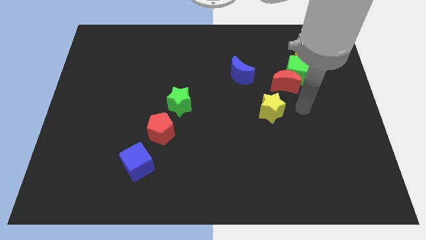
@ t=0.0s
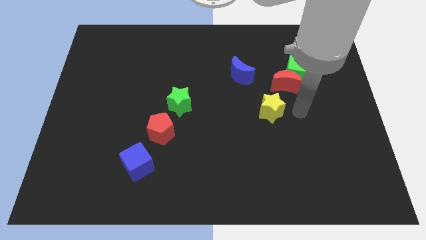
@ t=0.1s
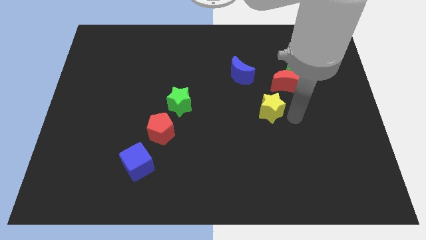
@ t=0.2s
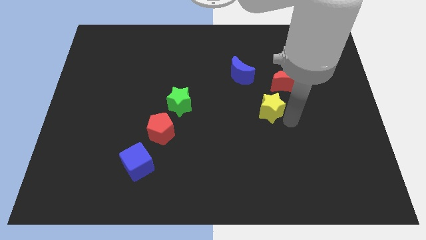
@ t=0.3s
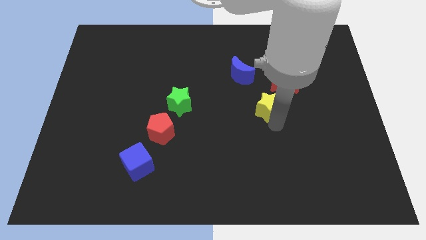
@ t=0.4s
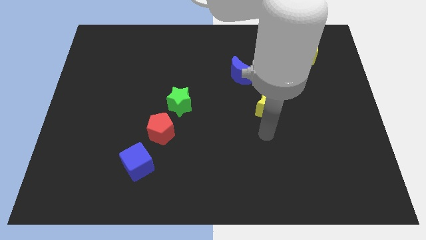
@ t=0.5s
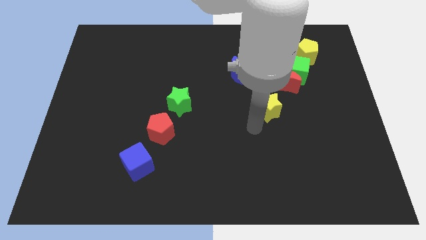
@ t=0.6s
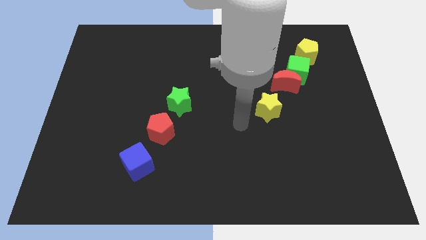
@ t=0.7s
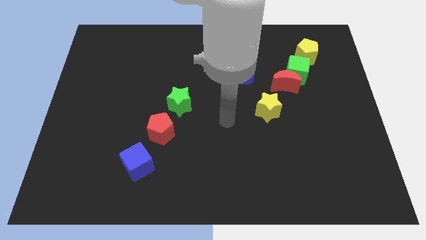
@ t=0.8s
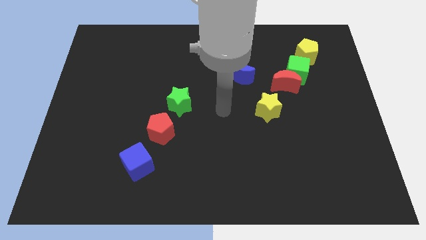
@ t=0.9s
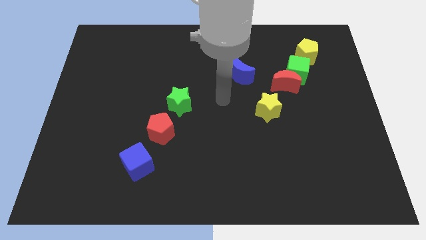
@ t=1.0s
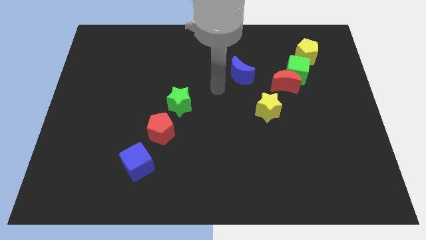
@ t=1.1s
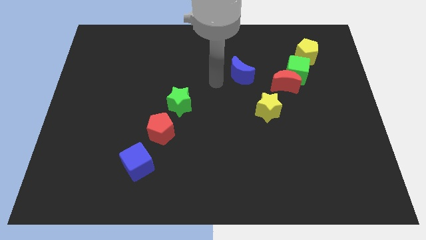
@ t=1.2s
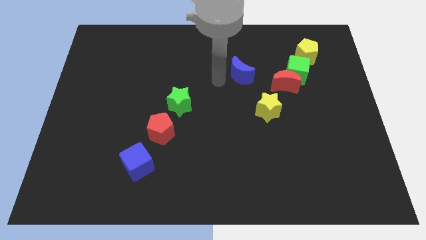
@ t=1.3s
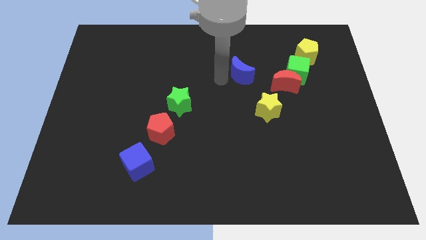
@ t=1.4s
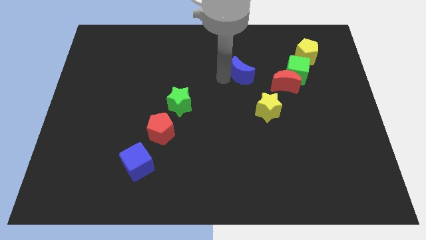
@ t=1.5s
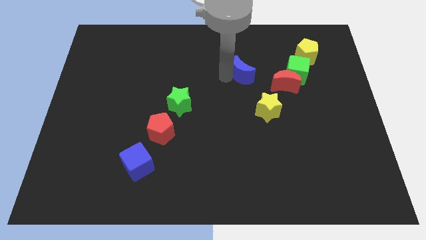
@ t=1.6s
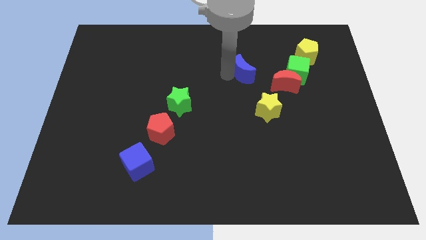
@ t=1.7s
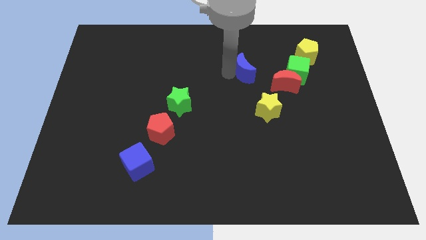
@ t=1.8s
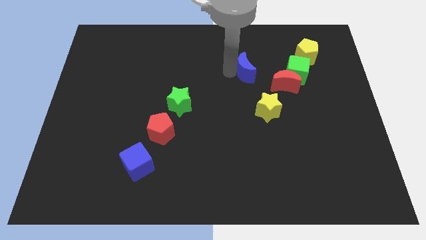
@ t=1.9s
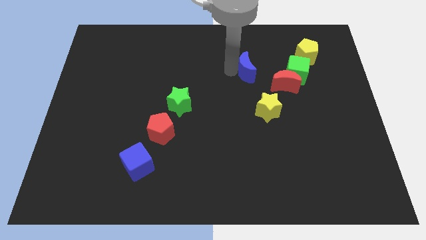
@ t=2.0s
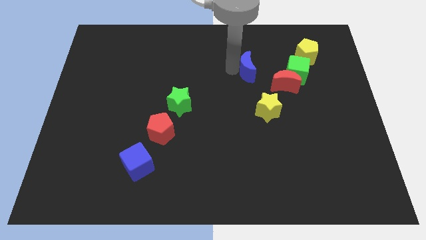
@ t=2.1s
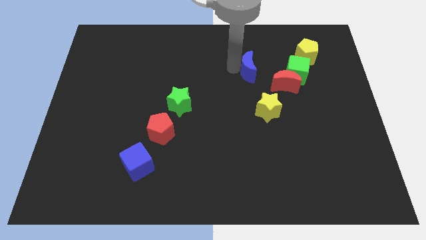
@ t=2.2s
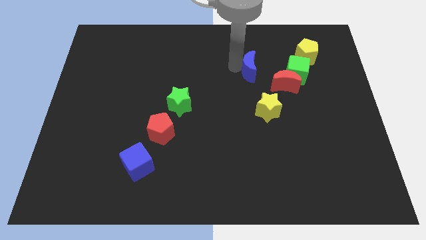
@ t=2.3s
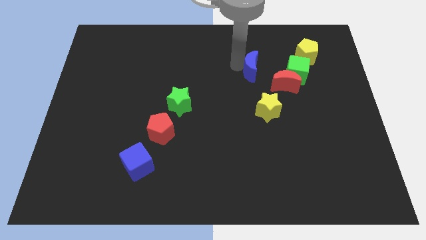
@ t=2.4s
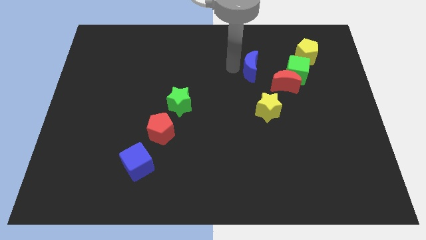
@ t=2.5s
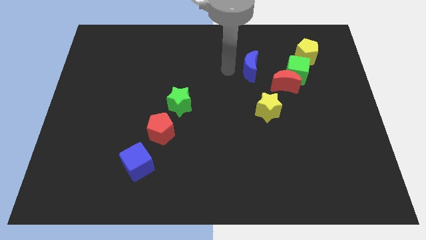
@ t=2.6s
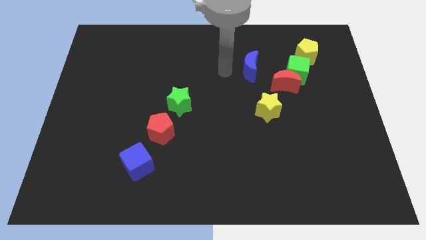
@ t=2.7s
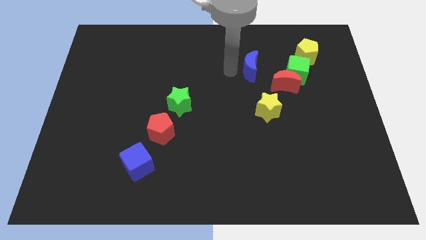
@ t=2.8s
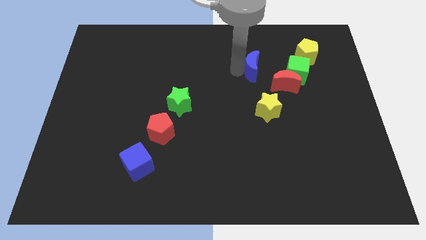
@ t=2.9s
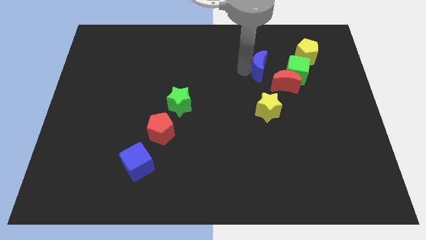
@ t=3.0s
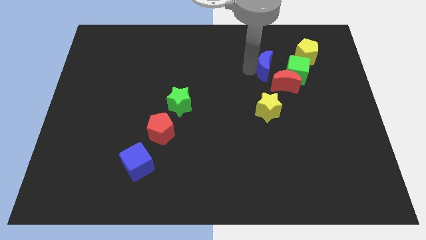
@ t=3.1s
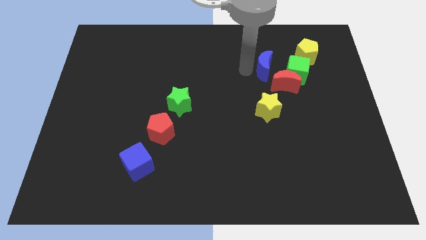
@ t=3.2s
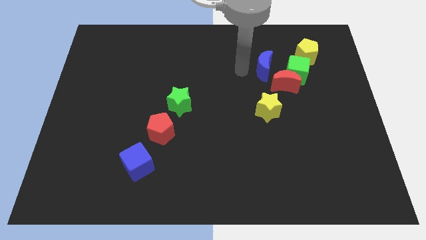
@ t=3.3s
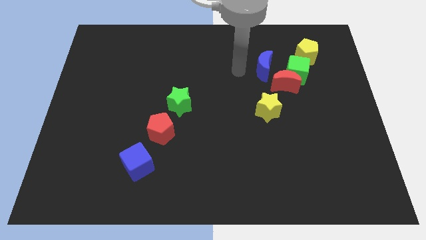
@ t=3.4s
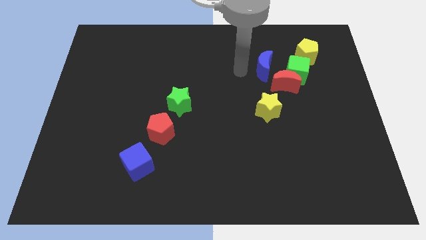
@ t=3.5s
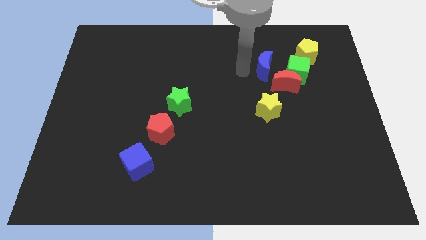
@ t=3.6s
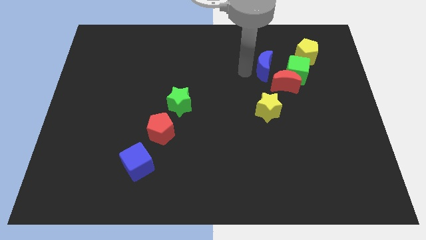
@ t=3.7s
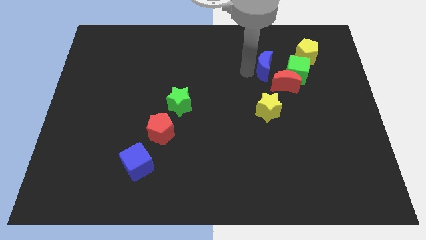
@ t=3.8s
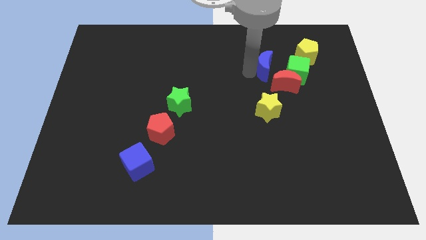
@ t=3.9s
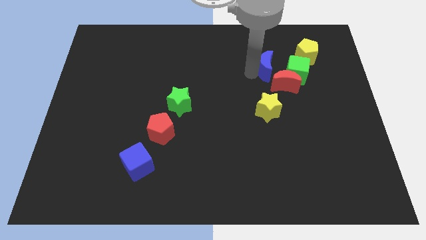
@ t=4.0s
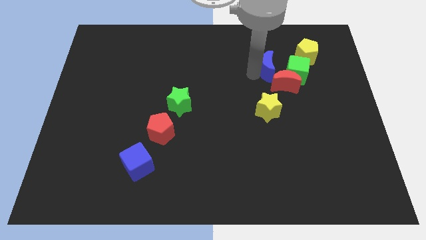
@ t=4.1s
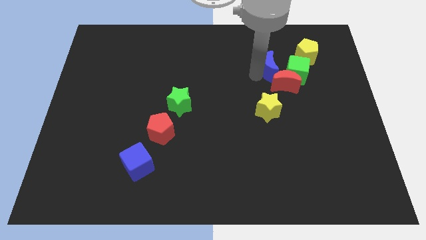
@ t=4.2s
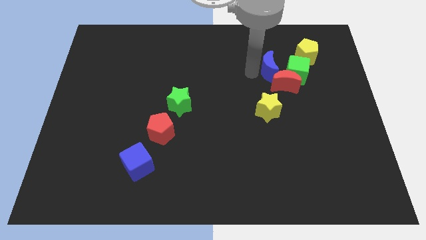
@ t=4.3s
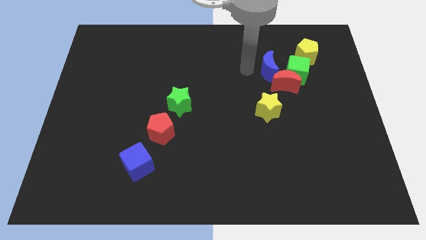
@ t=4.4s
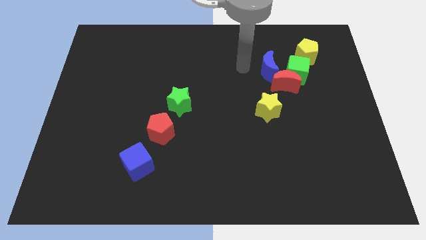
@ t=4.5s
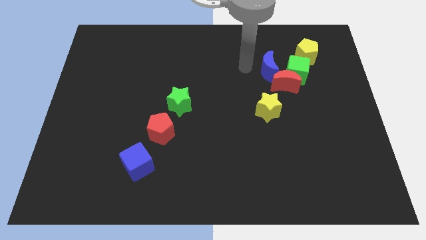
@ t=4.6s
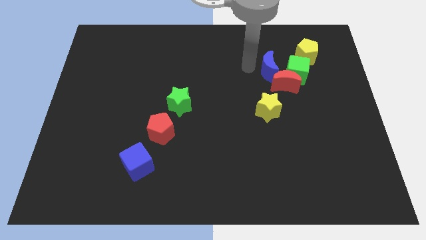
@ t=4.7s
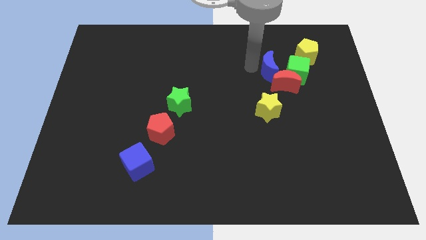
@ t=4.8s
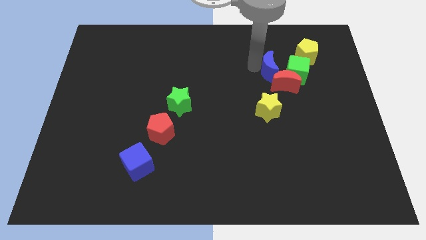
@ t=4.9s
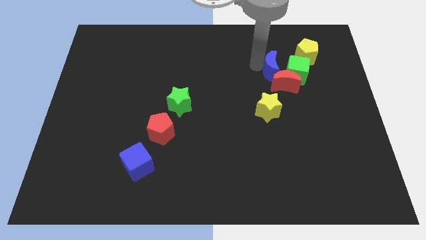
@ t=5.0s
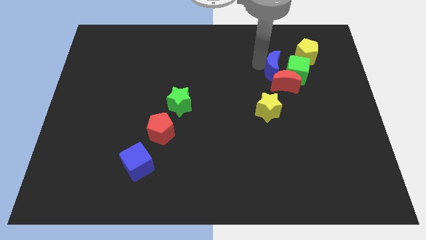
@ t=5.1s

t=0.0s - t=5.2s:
slide the blue moon close to the green cube

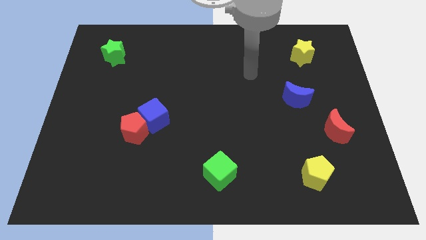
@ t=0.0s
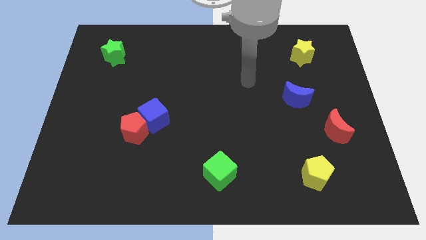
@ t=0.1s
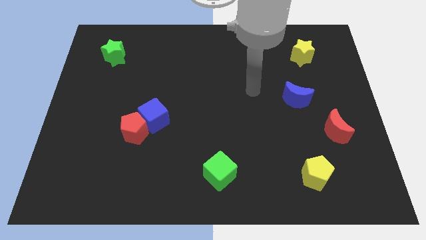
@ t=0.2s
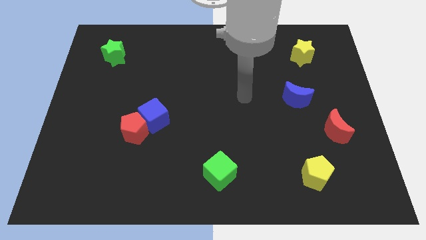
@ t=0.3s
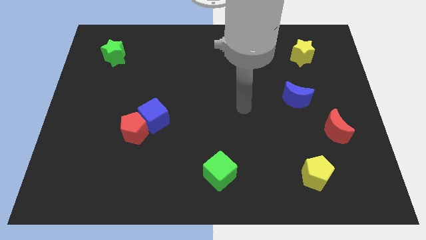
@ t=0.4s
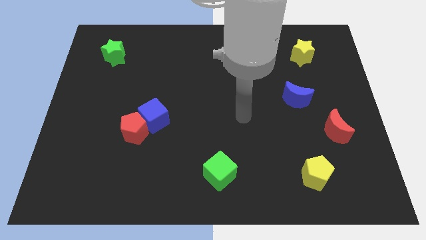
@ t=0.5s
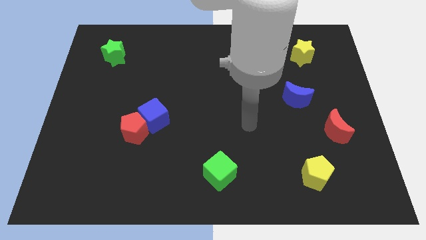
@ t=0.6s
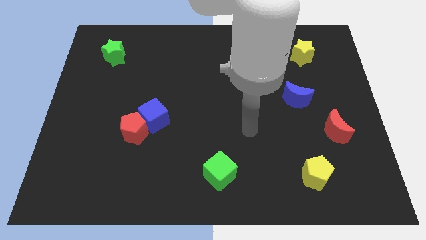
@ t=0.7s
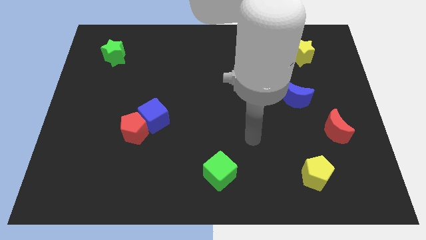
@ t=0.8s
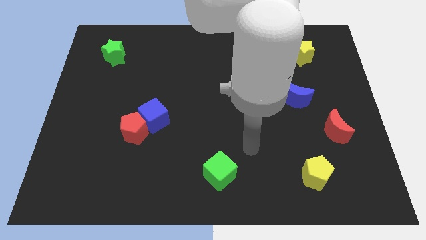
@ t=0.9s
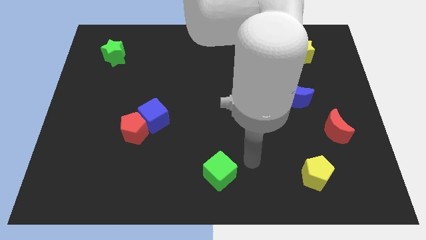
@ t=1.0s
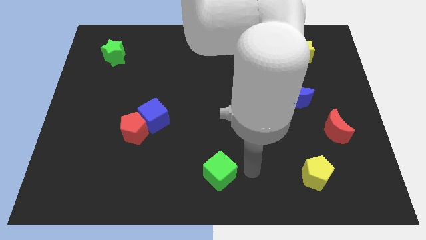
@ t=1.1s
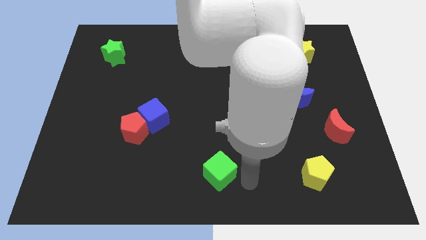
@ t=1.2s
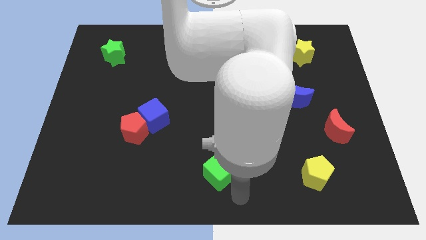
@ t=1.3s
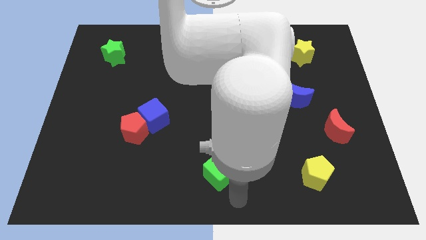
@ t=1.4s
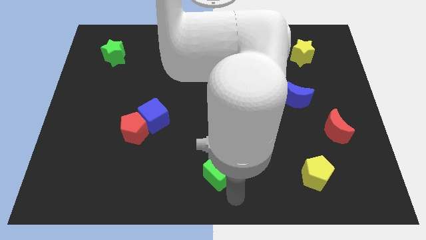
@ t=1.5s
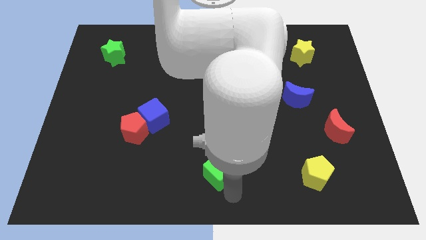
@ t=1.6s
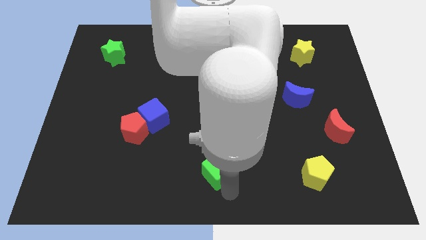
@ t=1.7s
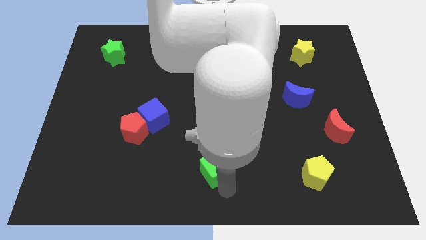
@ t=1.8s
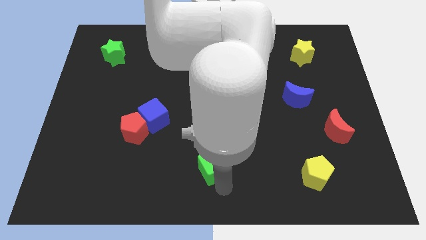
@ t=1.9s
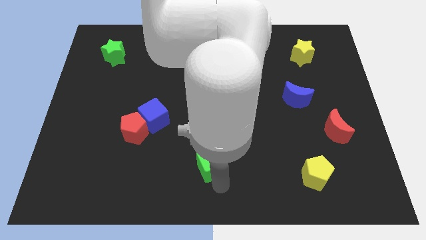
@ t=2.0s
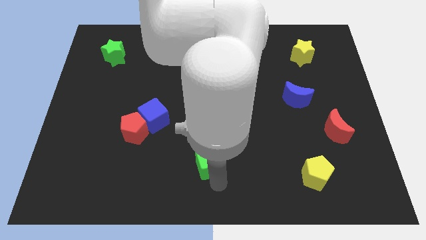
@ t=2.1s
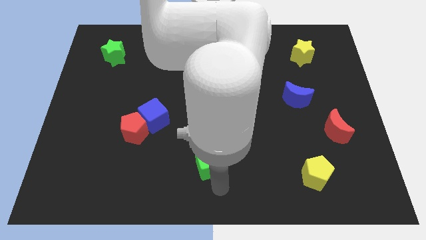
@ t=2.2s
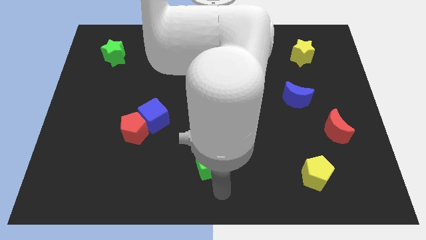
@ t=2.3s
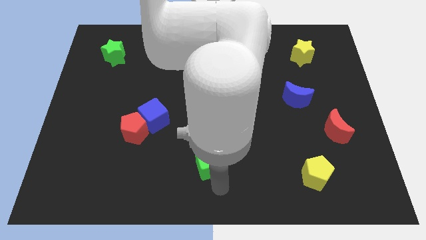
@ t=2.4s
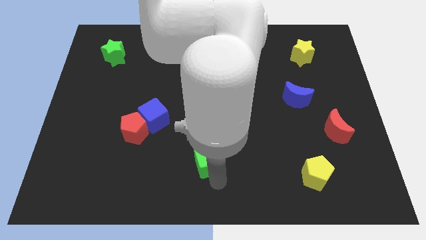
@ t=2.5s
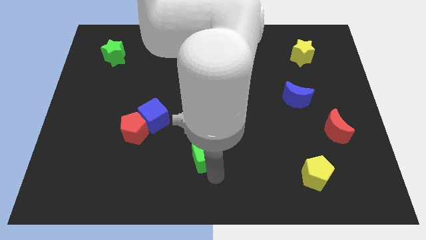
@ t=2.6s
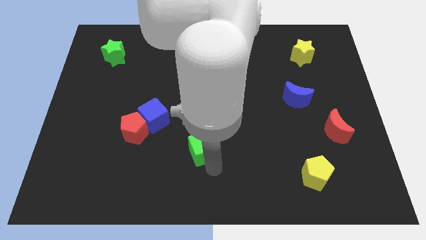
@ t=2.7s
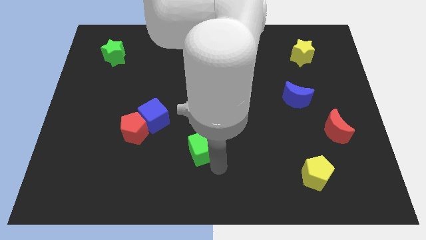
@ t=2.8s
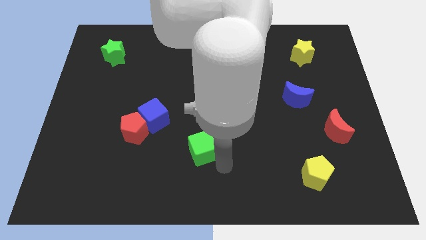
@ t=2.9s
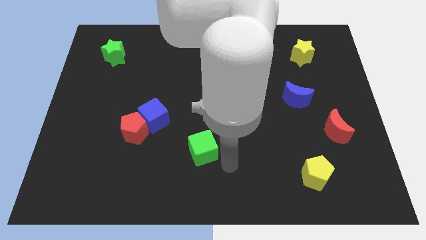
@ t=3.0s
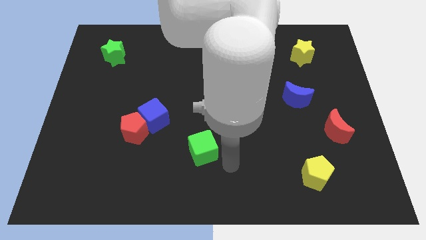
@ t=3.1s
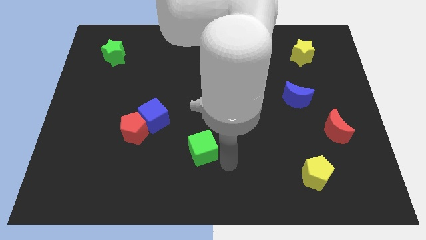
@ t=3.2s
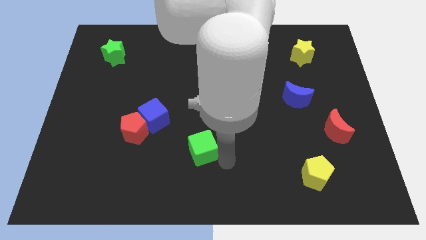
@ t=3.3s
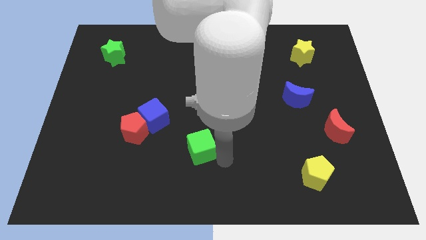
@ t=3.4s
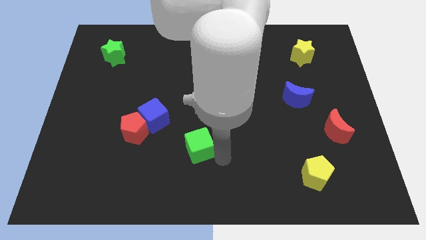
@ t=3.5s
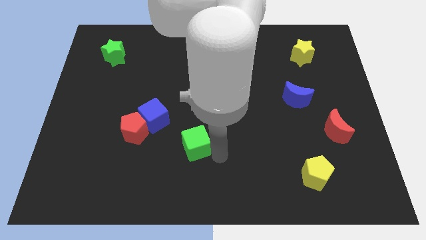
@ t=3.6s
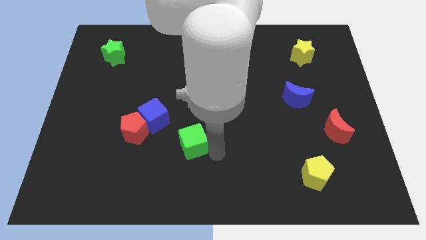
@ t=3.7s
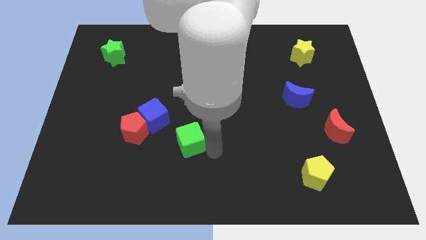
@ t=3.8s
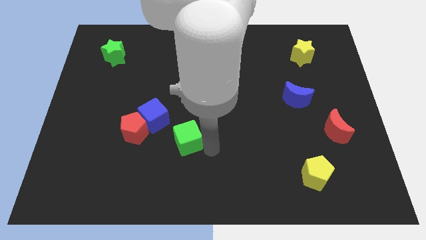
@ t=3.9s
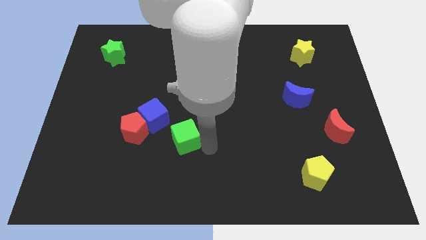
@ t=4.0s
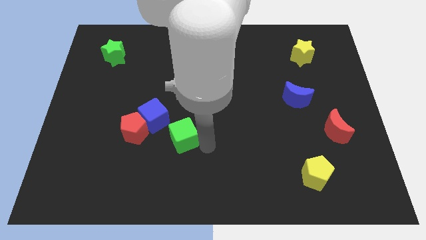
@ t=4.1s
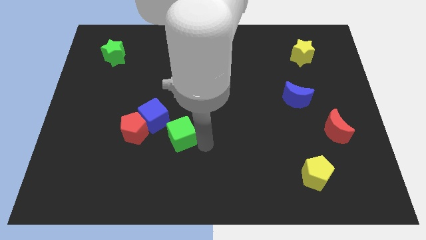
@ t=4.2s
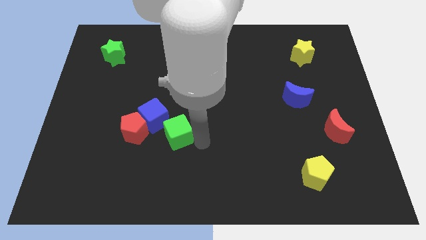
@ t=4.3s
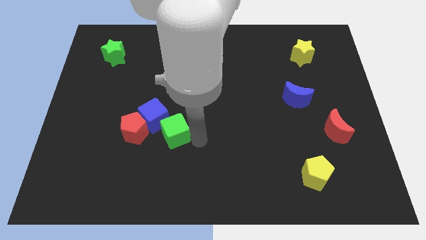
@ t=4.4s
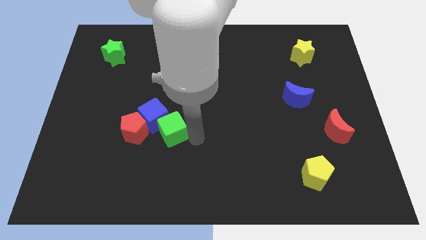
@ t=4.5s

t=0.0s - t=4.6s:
move the green cube to the blue cube
